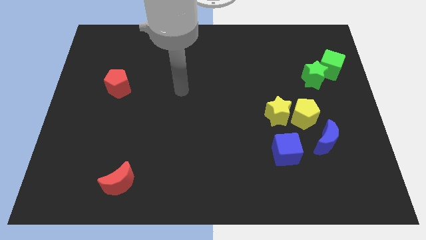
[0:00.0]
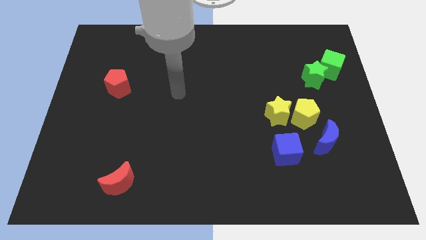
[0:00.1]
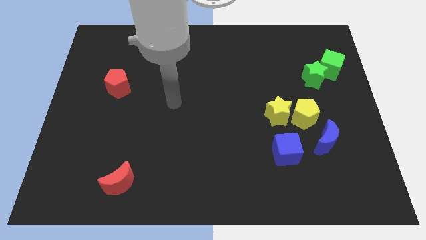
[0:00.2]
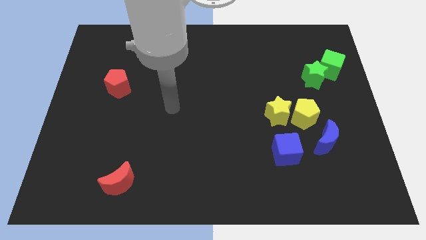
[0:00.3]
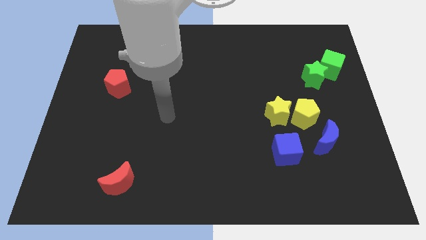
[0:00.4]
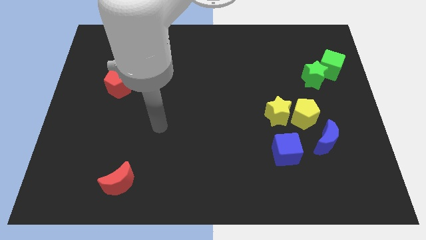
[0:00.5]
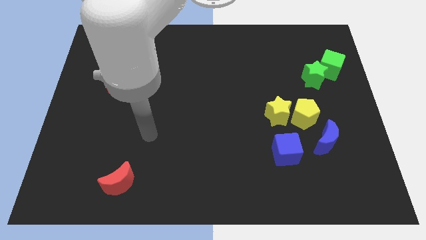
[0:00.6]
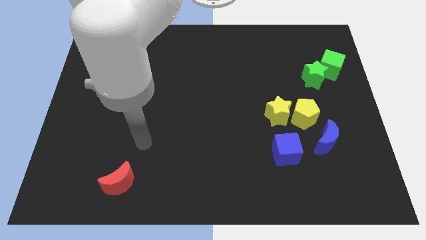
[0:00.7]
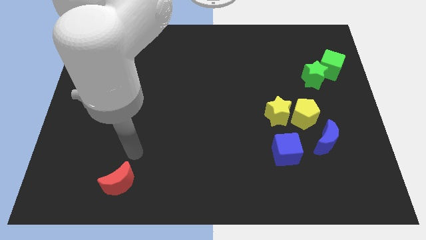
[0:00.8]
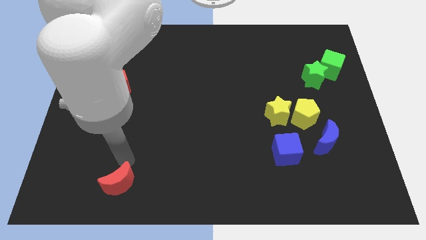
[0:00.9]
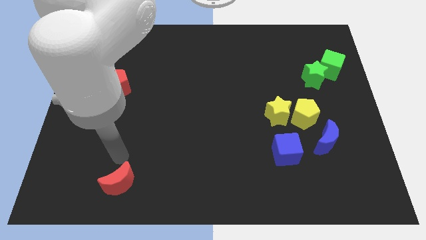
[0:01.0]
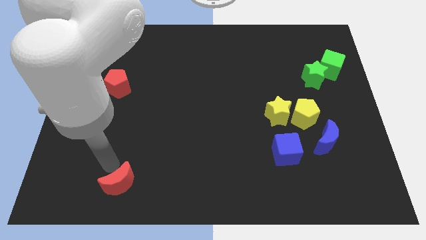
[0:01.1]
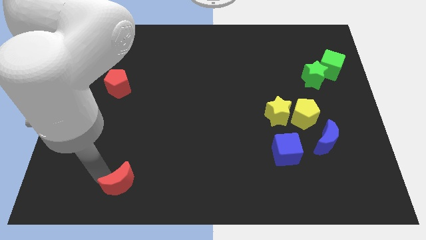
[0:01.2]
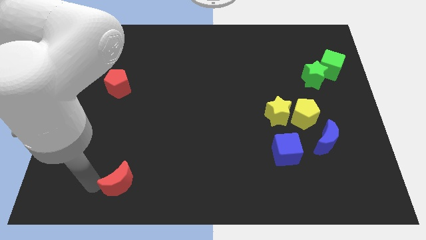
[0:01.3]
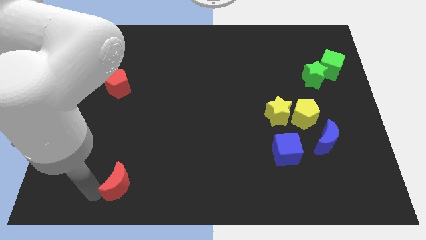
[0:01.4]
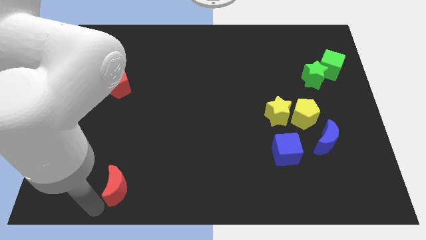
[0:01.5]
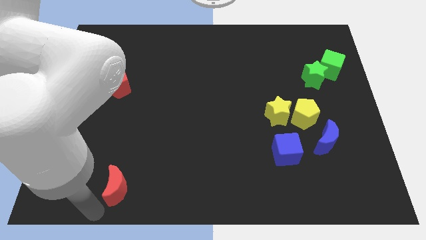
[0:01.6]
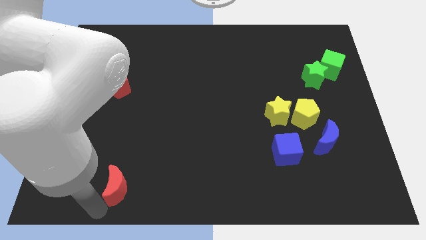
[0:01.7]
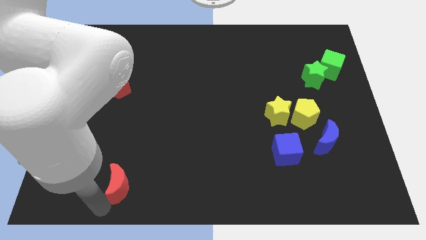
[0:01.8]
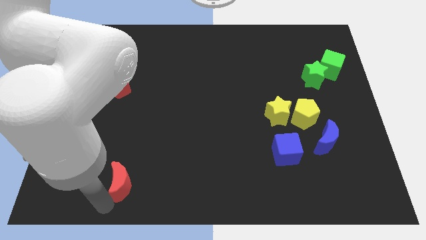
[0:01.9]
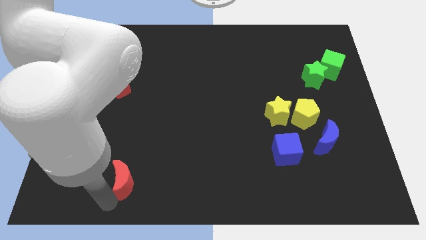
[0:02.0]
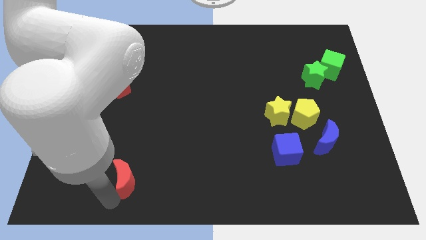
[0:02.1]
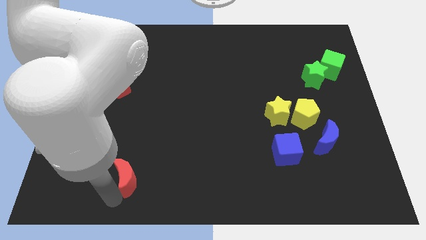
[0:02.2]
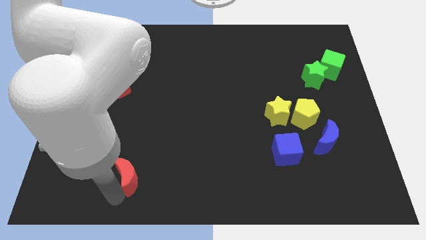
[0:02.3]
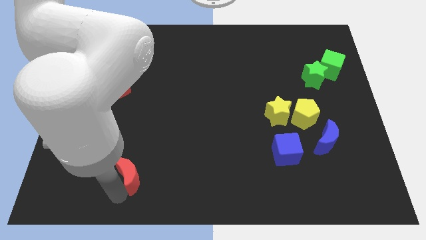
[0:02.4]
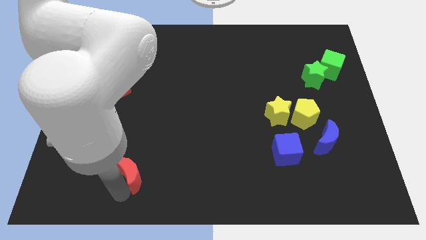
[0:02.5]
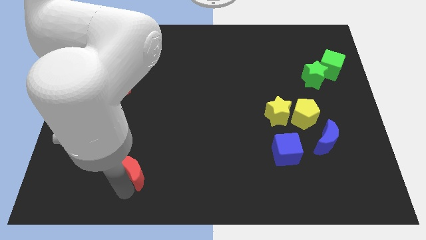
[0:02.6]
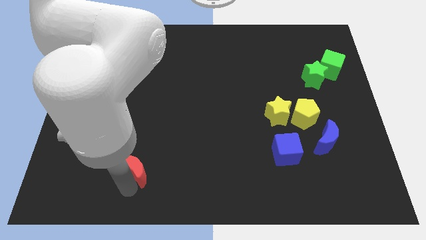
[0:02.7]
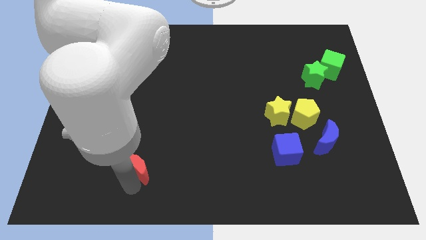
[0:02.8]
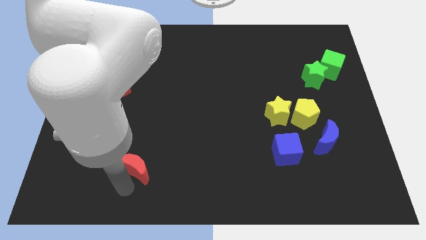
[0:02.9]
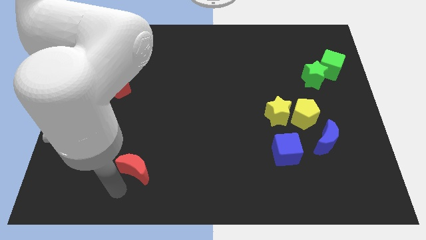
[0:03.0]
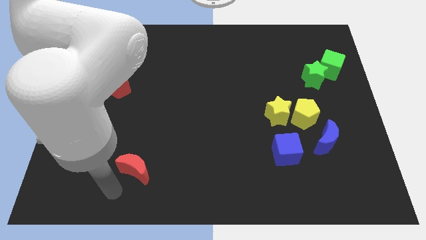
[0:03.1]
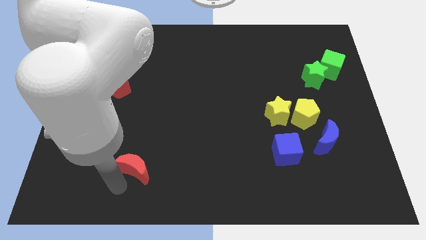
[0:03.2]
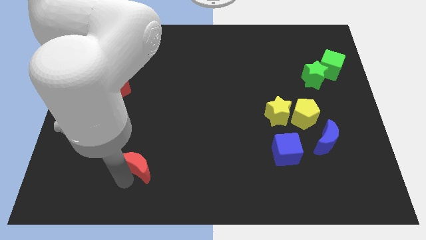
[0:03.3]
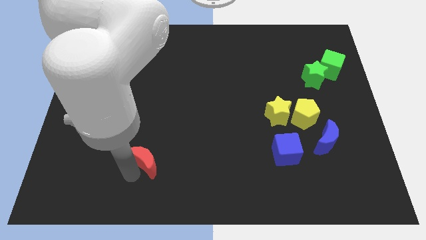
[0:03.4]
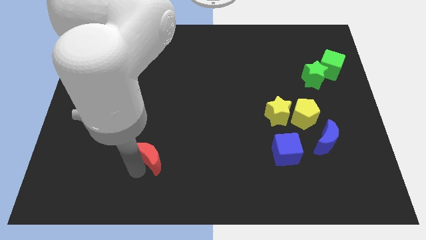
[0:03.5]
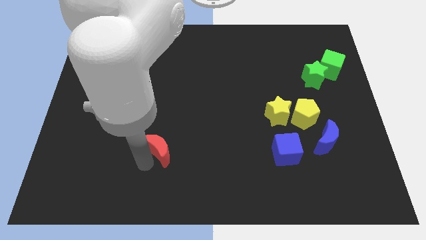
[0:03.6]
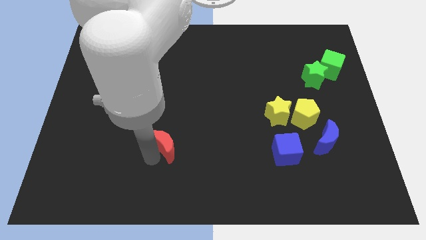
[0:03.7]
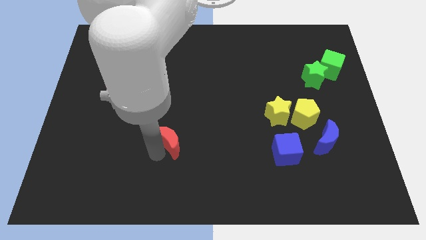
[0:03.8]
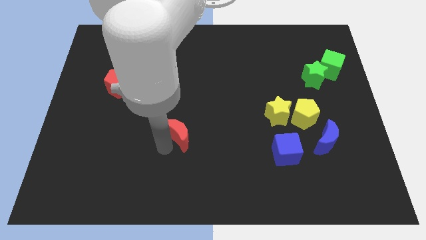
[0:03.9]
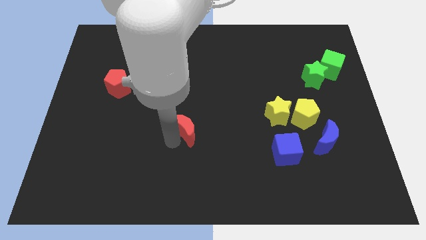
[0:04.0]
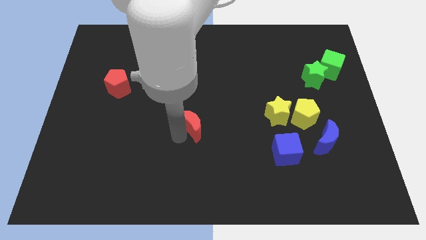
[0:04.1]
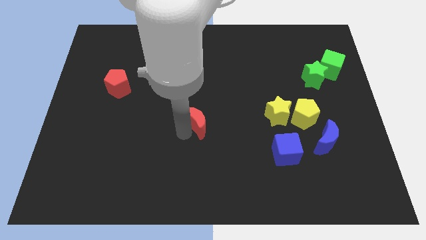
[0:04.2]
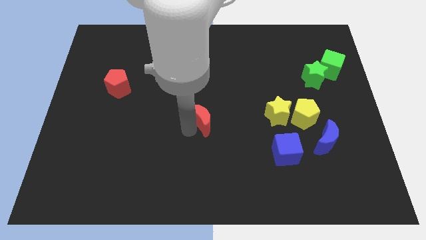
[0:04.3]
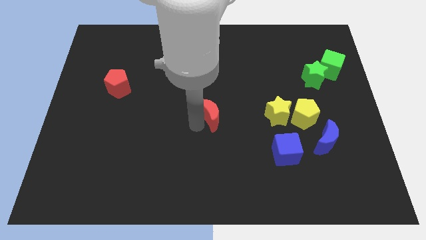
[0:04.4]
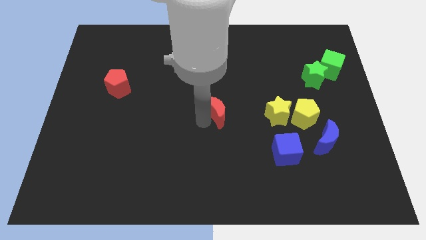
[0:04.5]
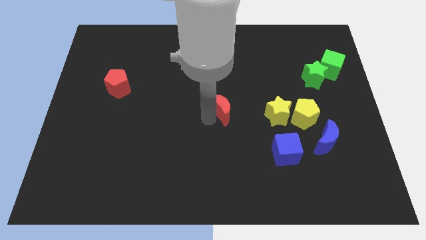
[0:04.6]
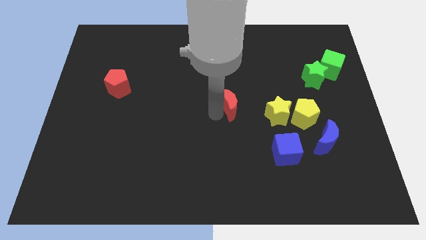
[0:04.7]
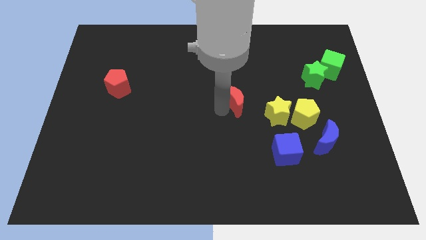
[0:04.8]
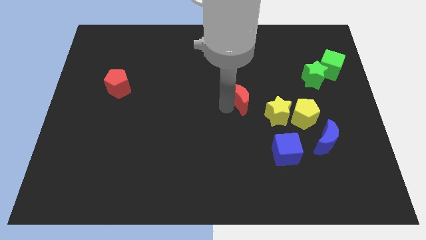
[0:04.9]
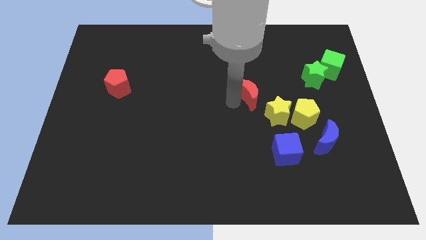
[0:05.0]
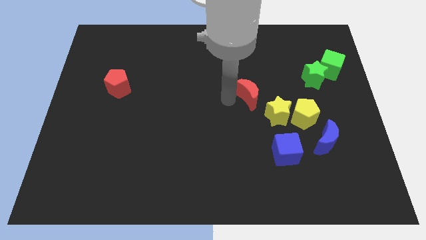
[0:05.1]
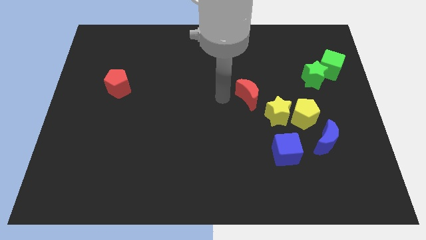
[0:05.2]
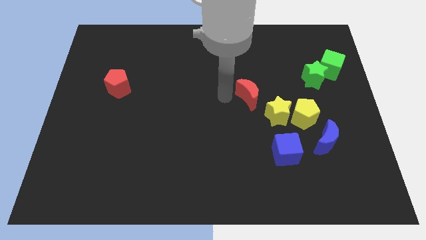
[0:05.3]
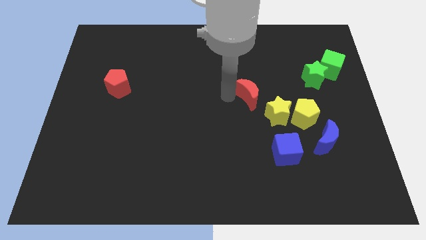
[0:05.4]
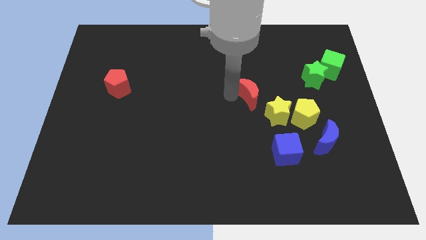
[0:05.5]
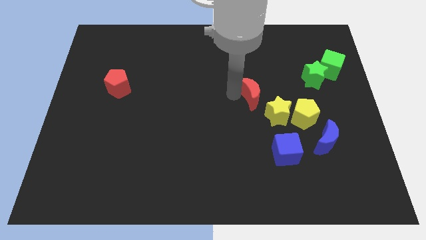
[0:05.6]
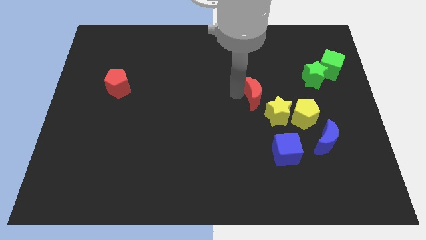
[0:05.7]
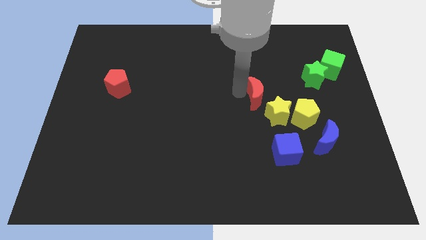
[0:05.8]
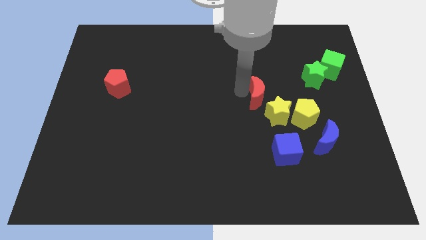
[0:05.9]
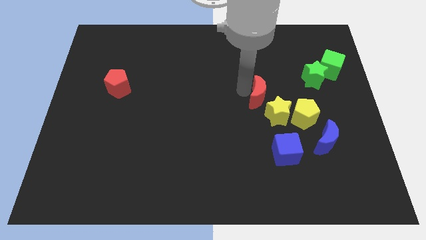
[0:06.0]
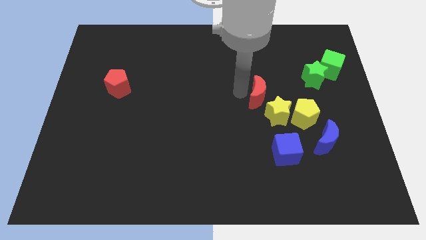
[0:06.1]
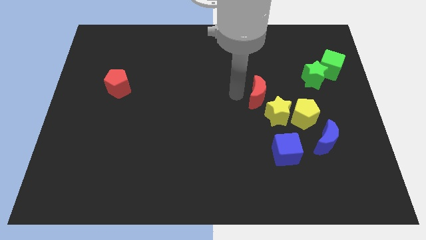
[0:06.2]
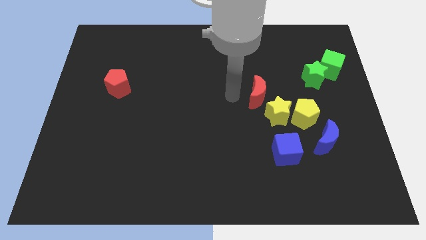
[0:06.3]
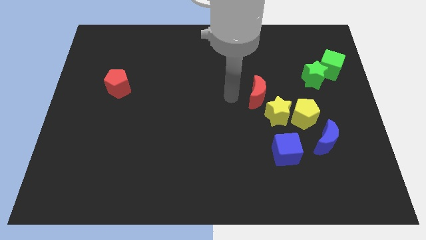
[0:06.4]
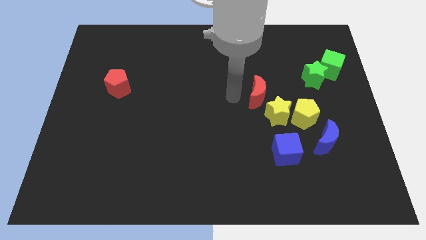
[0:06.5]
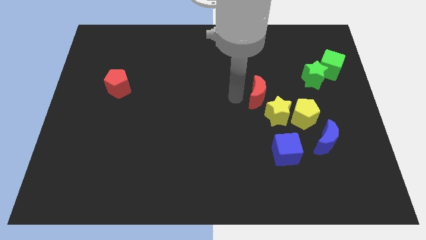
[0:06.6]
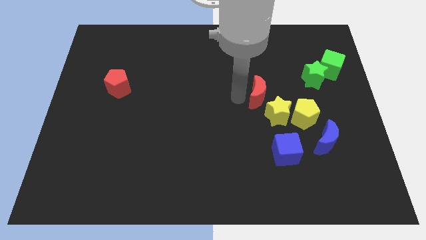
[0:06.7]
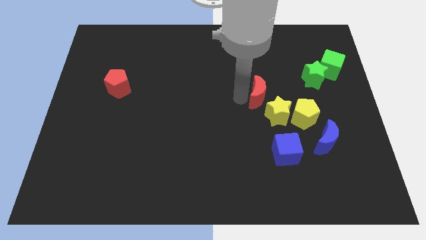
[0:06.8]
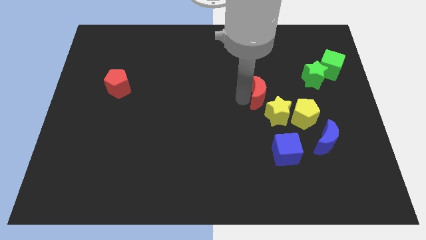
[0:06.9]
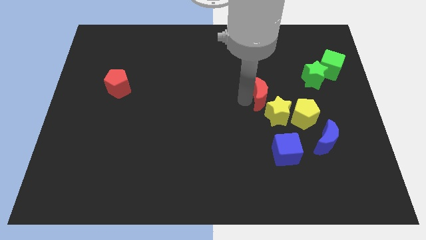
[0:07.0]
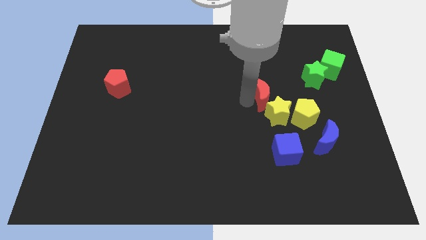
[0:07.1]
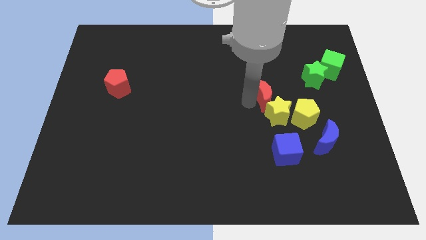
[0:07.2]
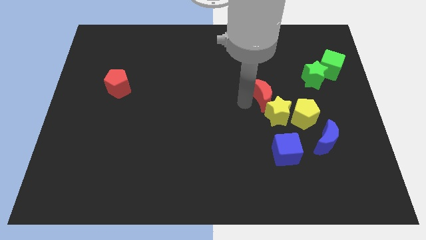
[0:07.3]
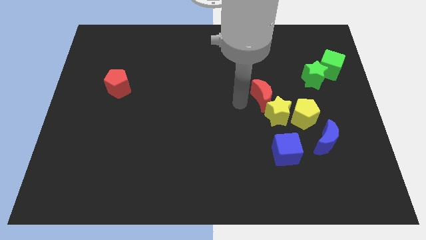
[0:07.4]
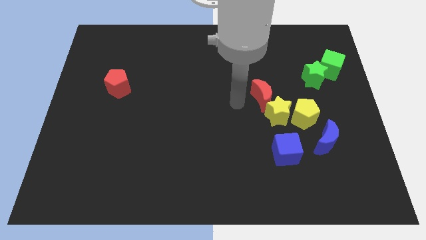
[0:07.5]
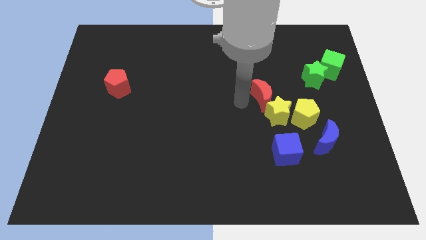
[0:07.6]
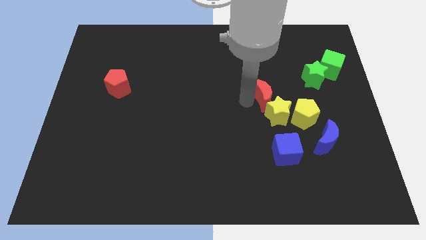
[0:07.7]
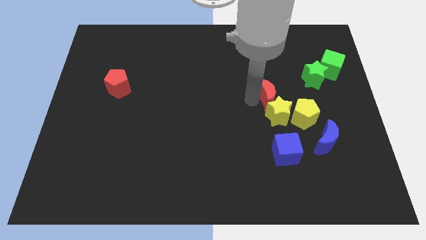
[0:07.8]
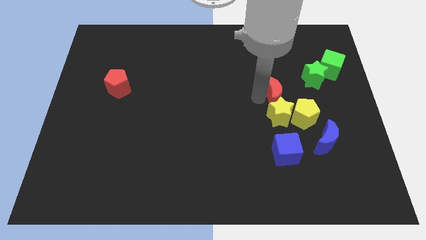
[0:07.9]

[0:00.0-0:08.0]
push the red moon to the top right of the yellow star
